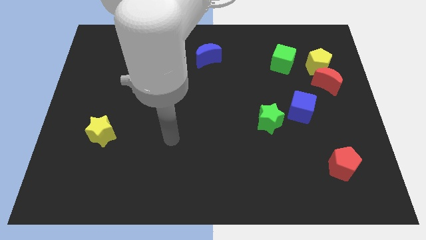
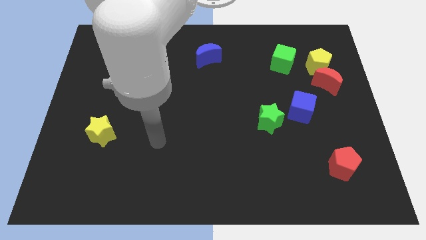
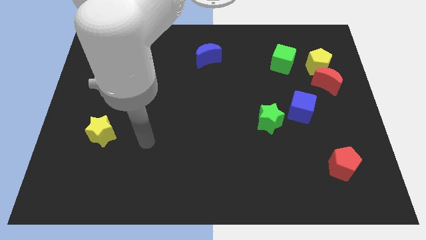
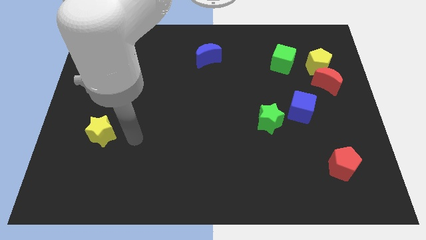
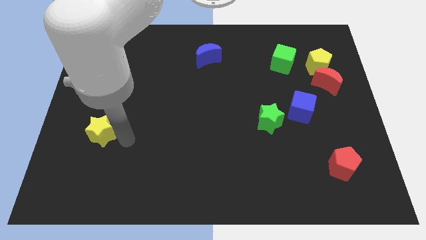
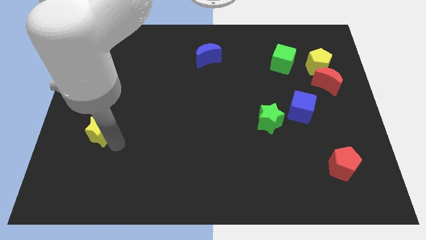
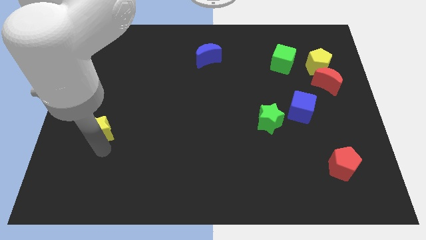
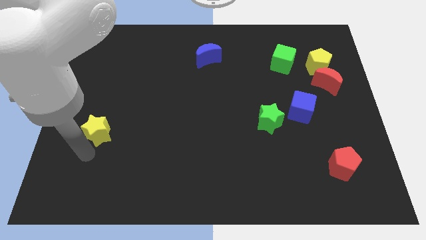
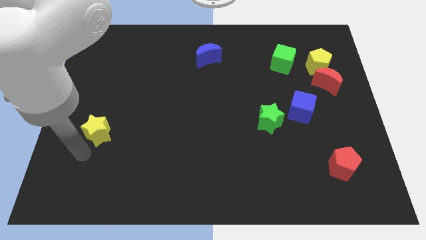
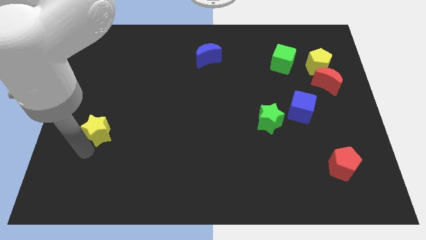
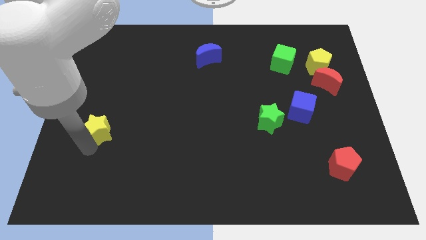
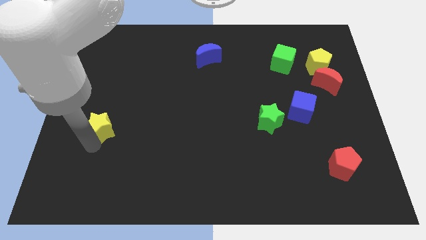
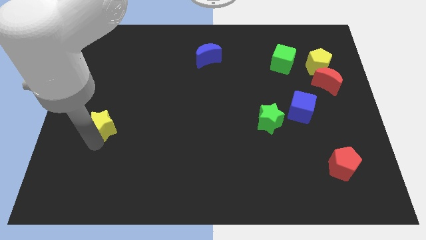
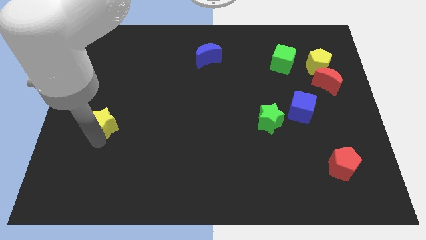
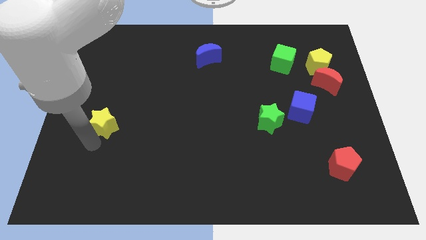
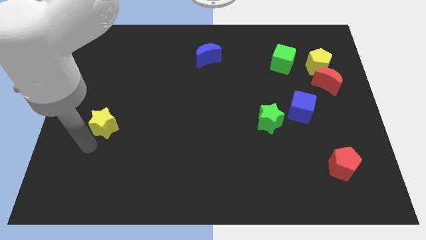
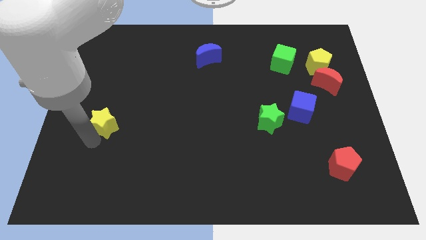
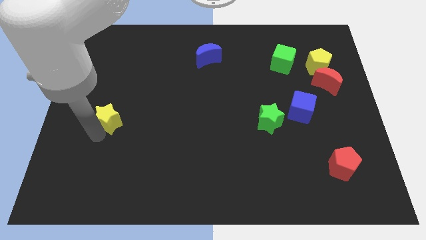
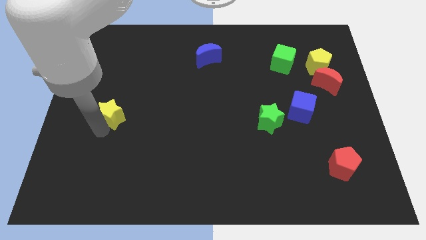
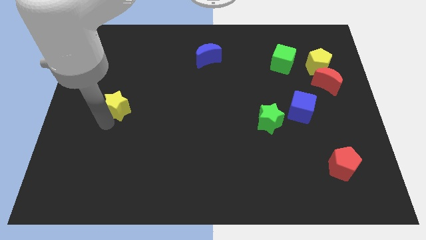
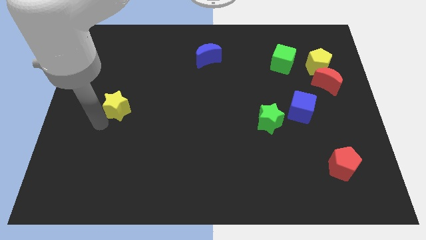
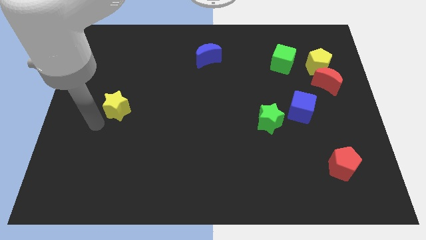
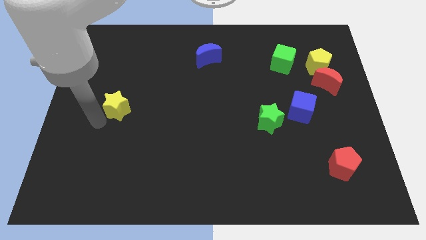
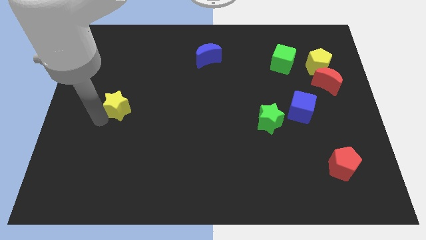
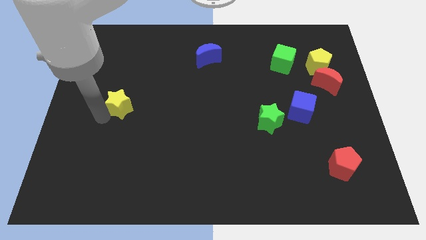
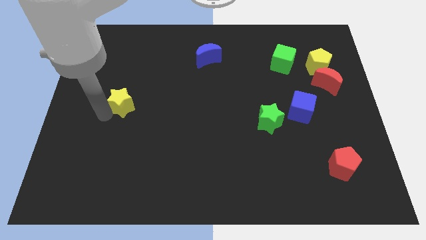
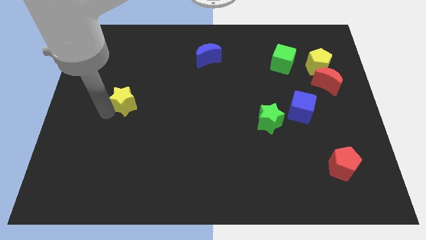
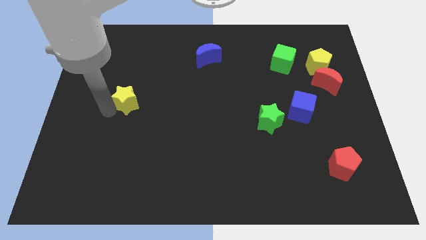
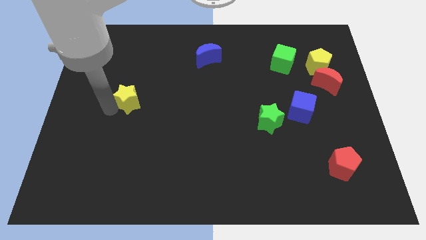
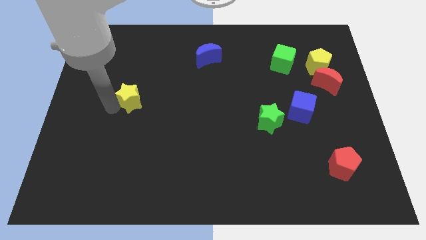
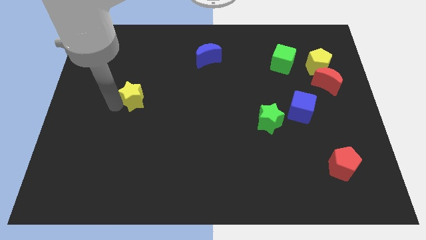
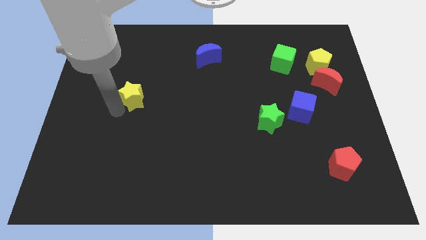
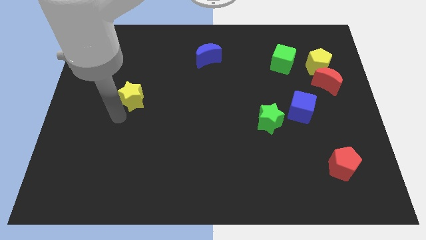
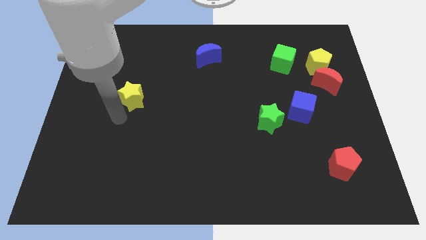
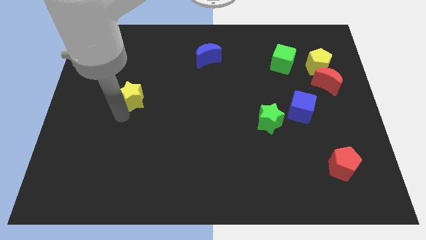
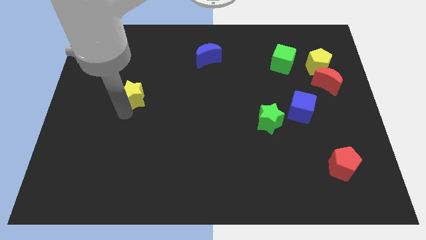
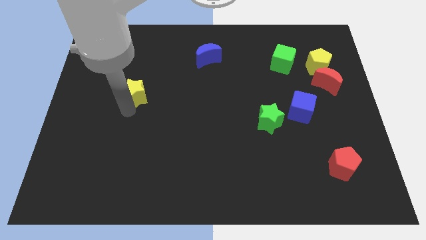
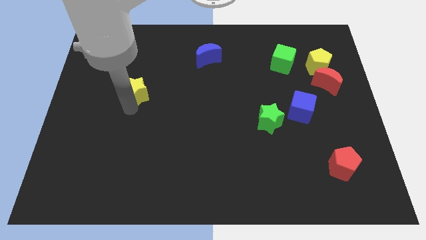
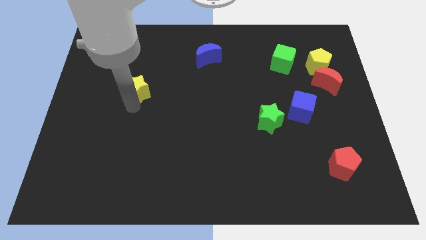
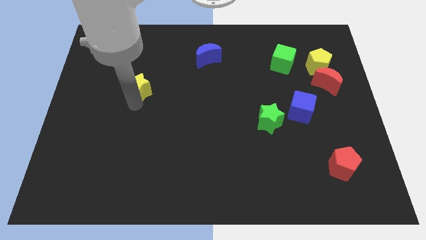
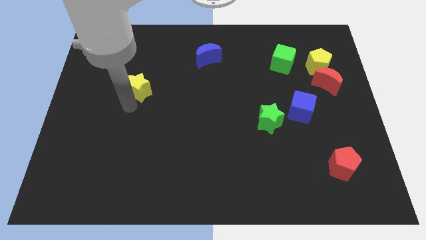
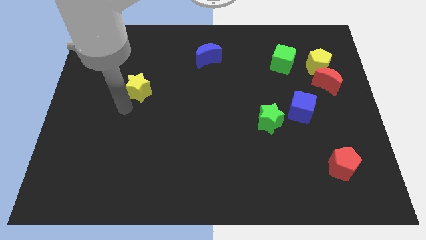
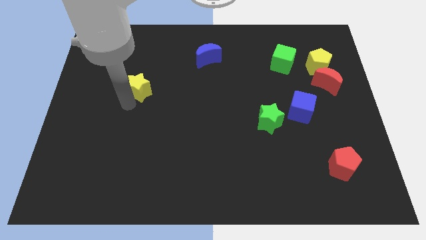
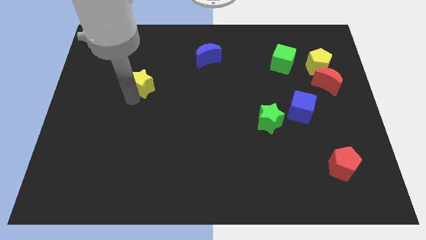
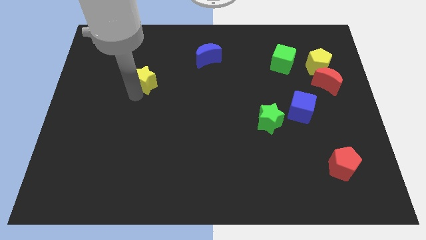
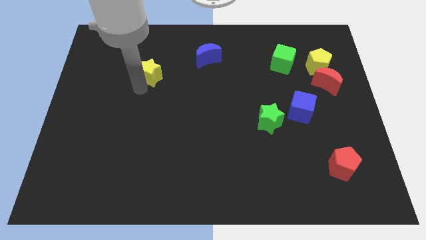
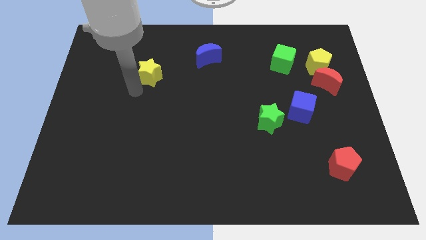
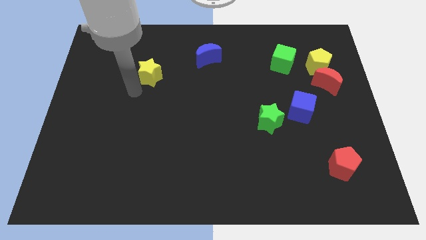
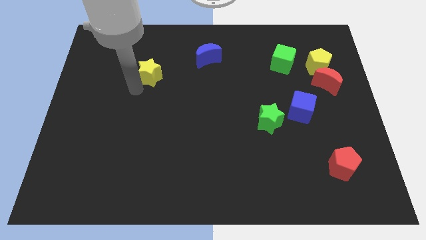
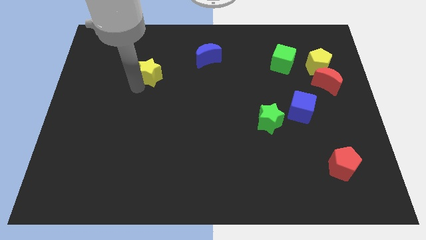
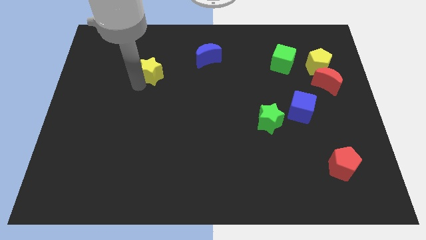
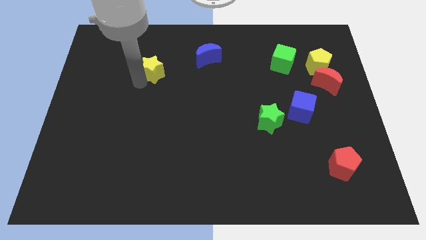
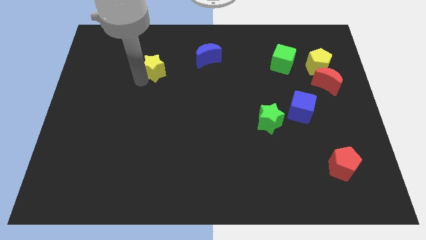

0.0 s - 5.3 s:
move the yellow star left of the blue moon

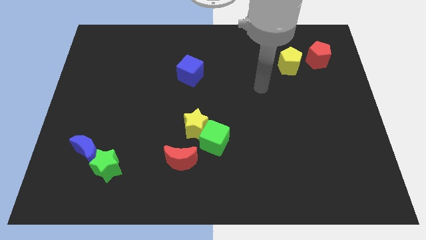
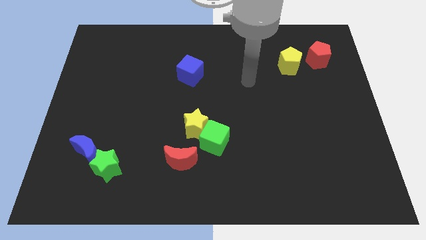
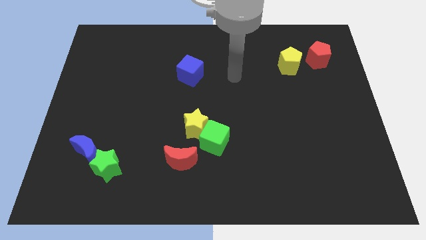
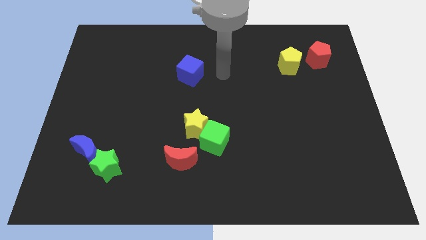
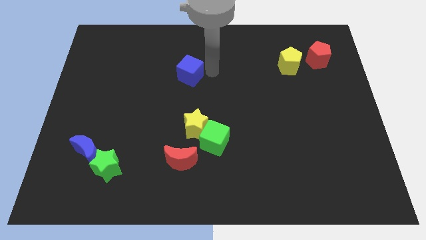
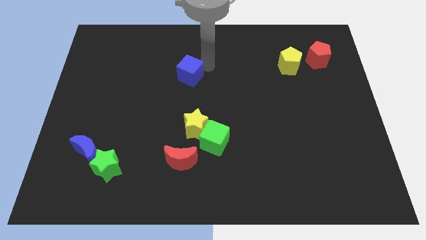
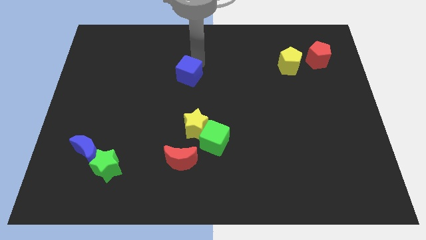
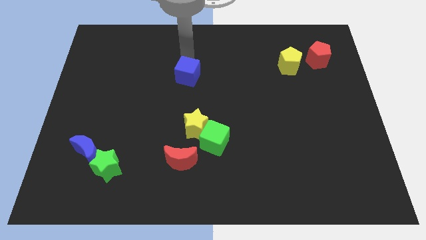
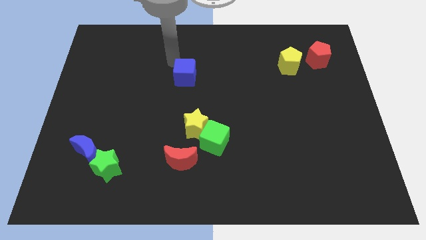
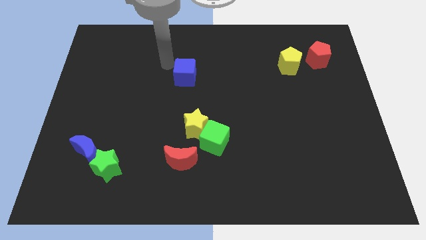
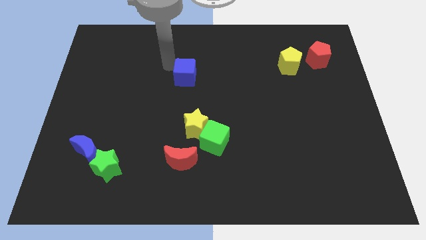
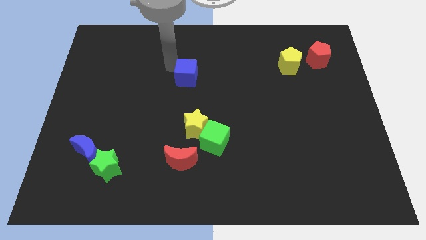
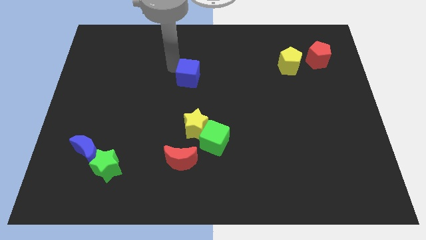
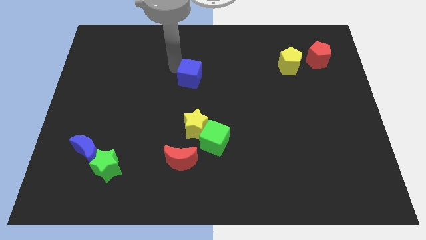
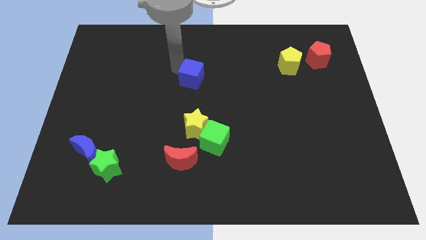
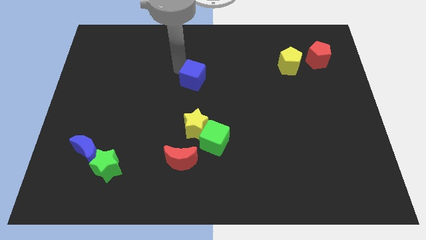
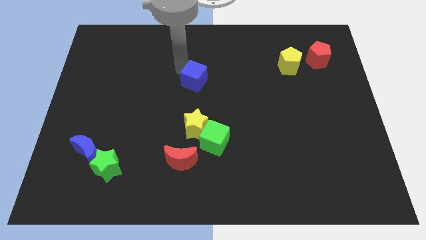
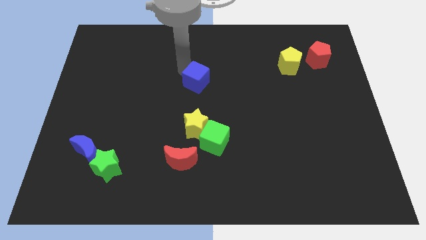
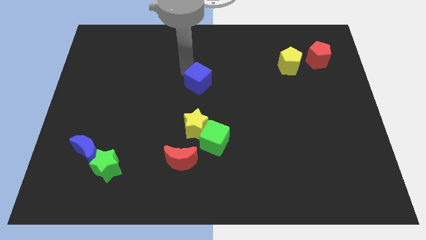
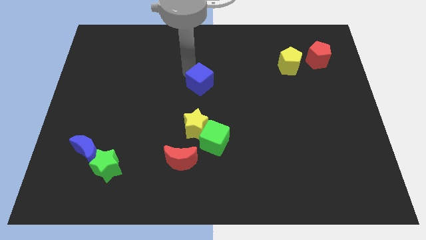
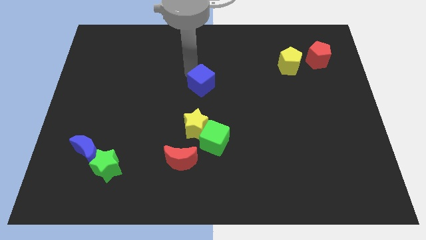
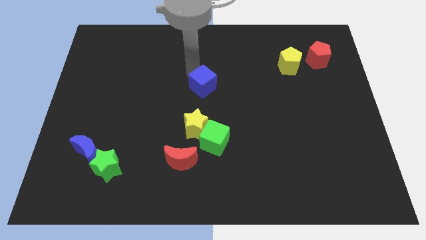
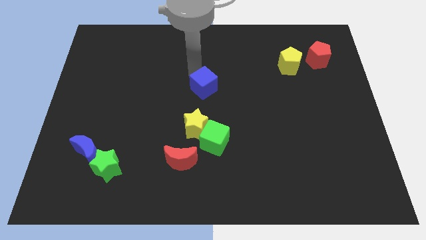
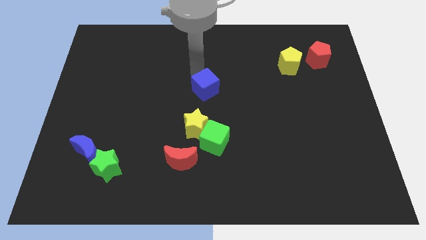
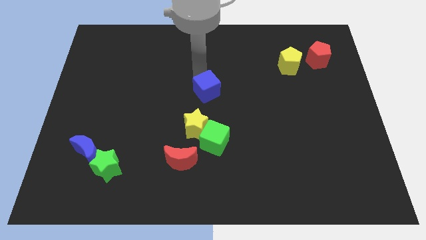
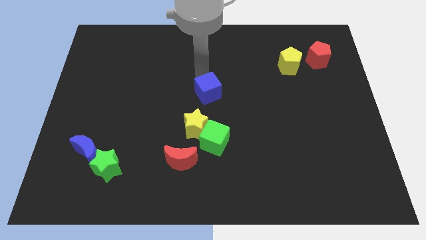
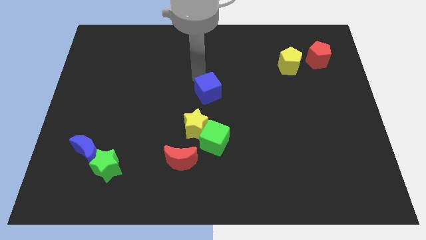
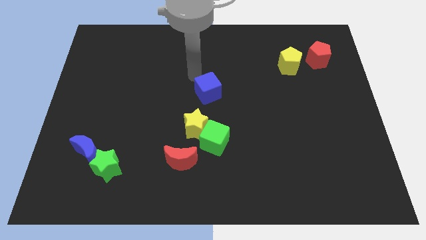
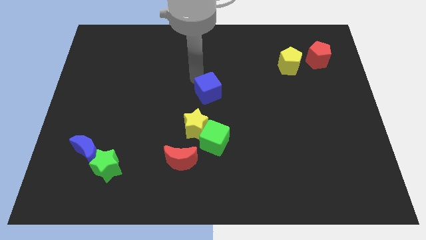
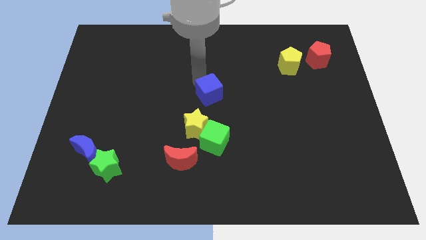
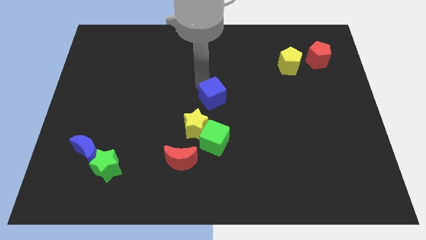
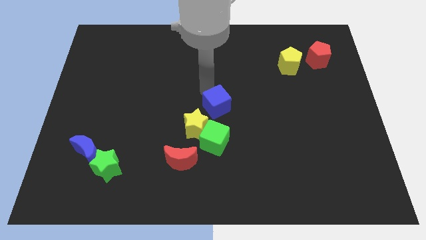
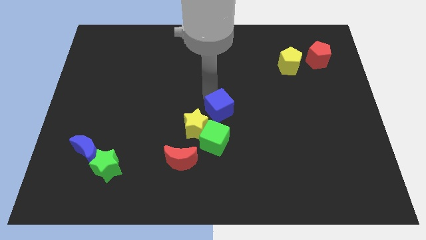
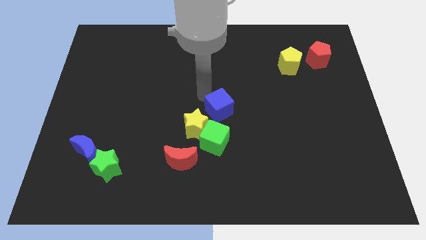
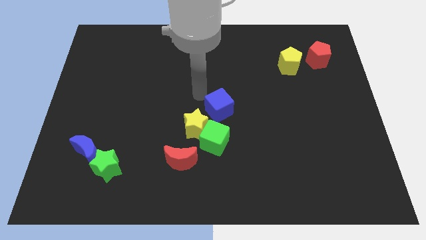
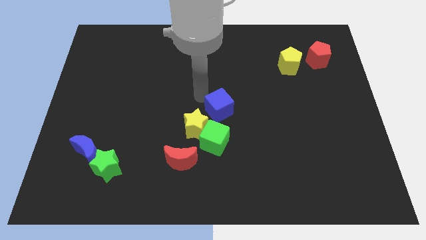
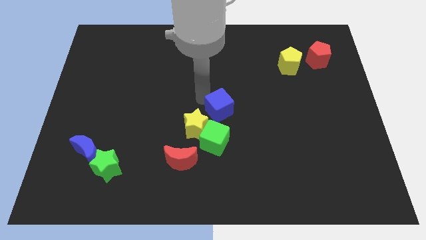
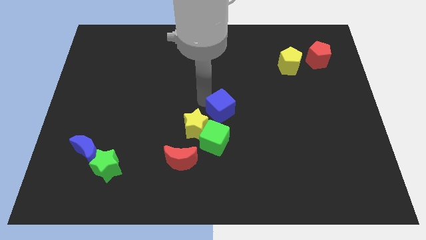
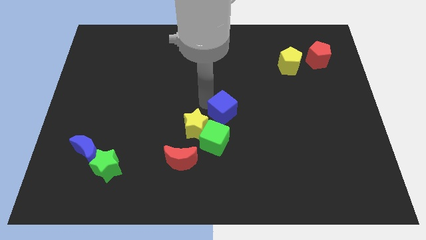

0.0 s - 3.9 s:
put the blue cube to the top right side of the green cube
